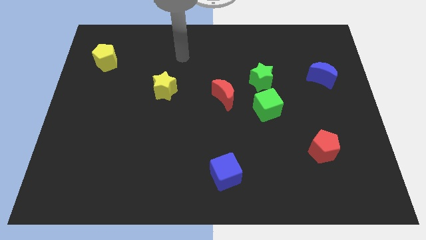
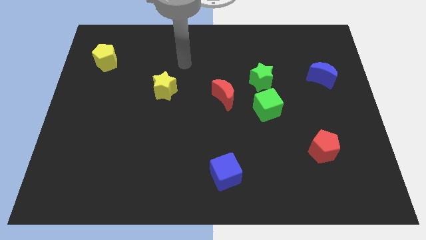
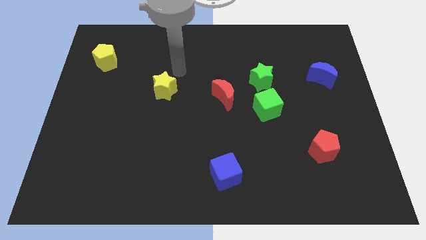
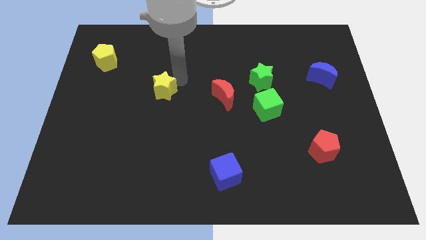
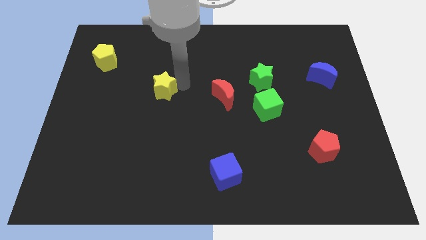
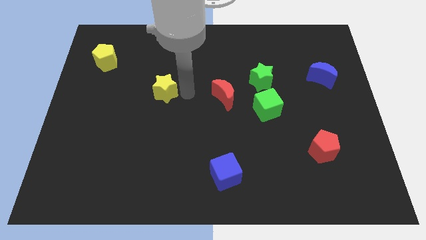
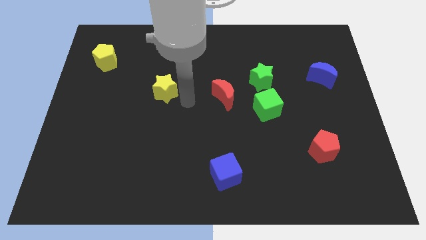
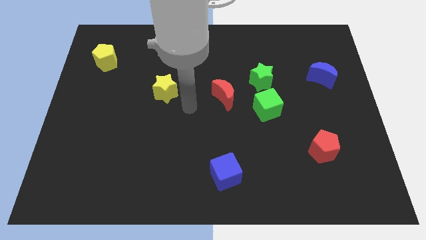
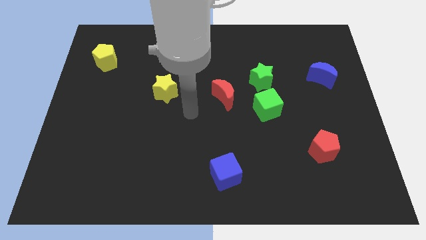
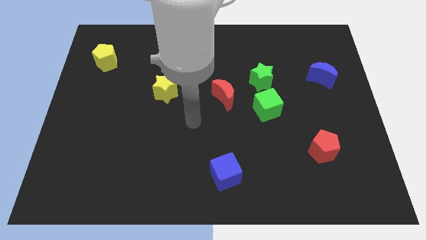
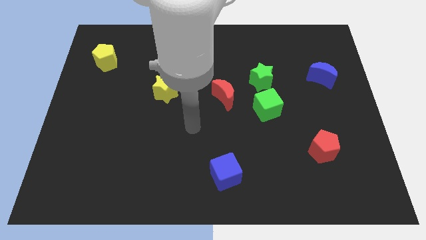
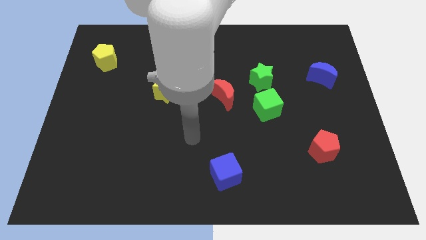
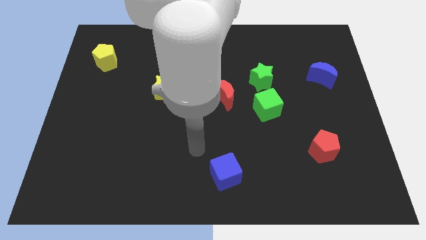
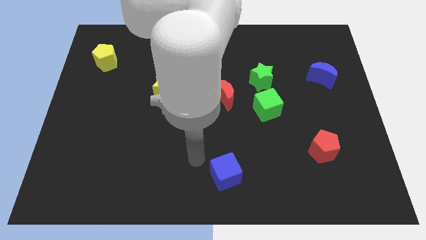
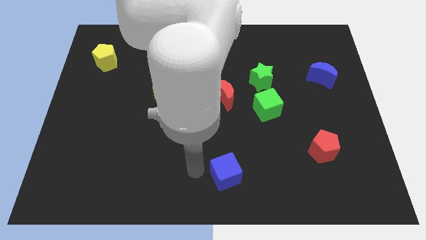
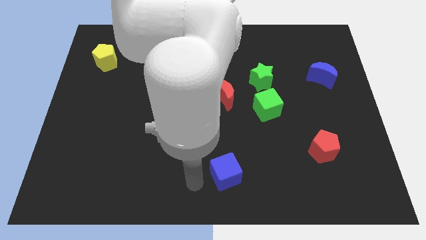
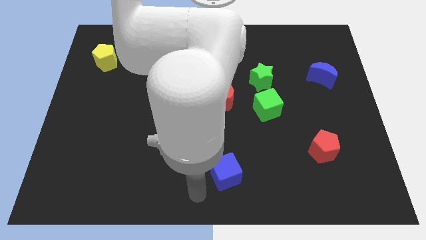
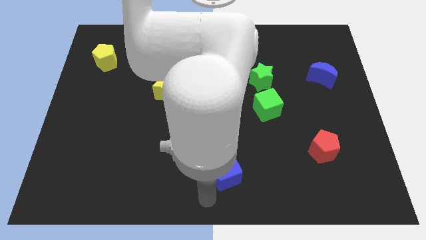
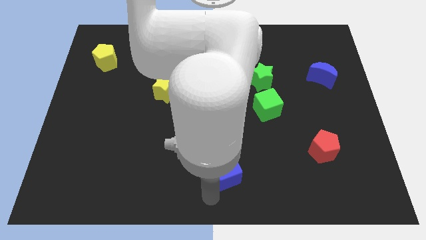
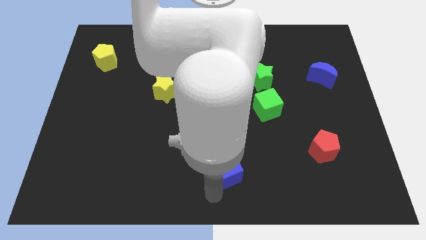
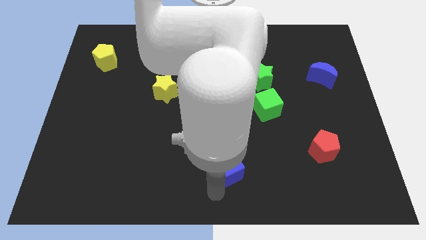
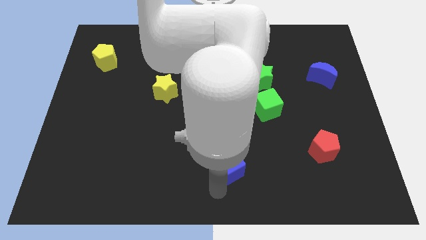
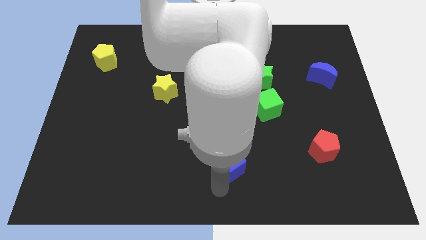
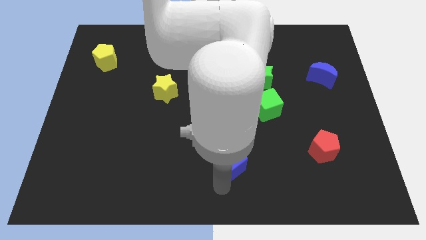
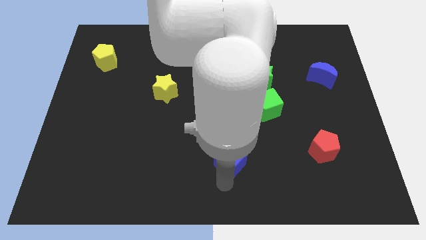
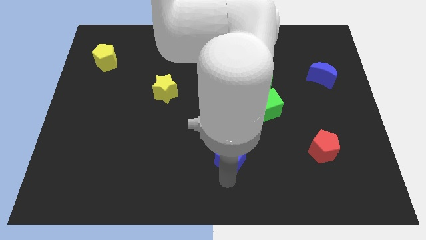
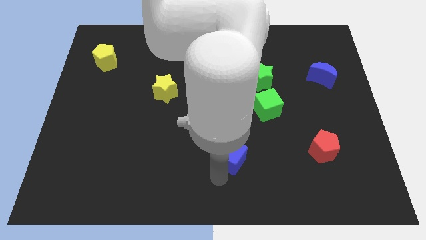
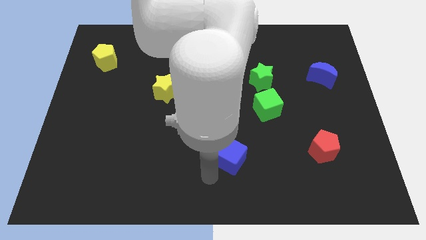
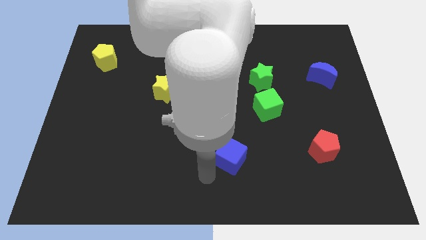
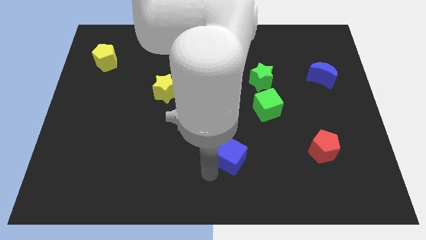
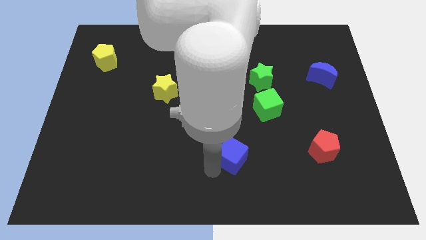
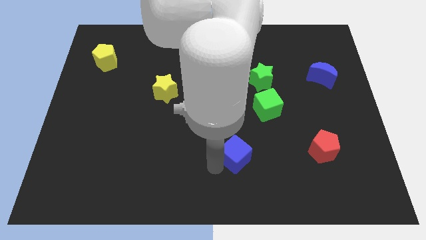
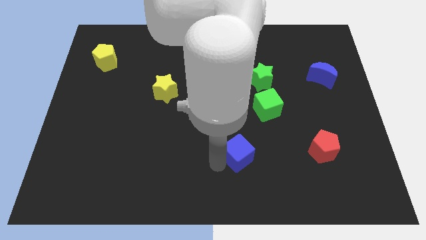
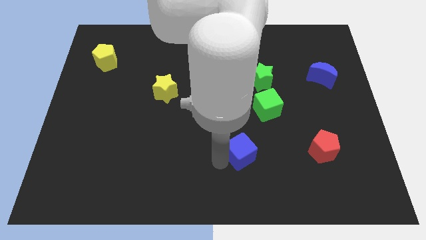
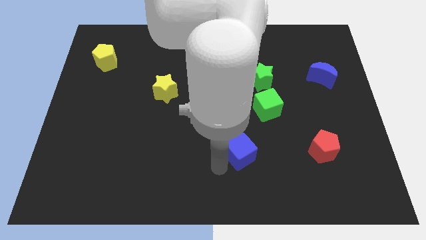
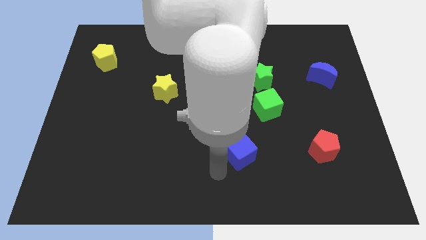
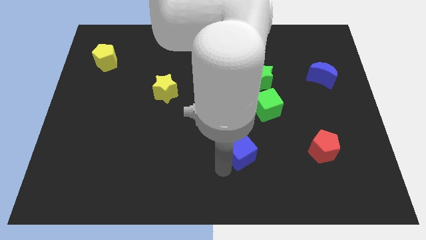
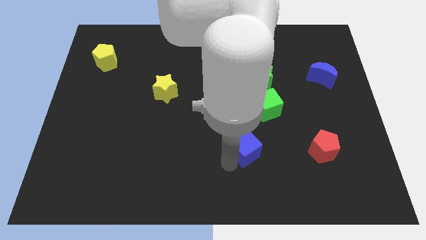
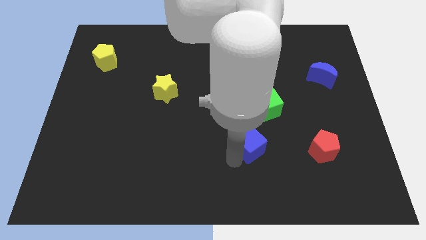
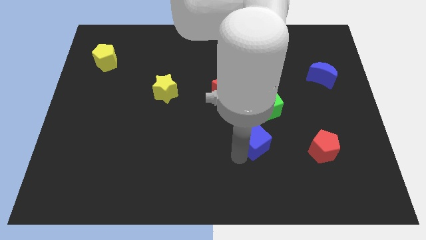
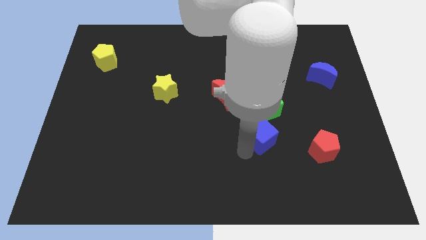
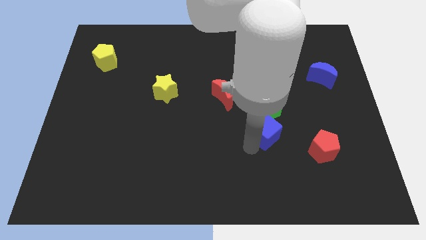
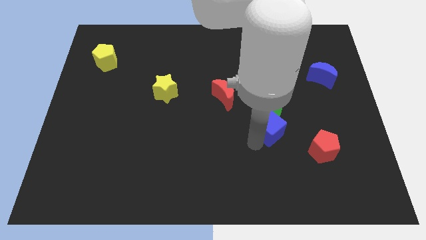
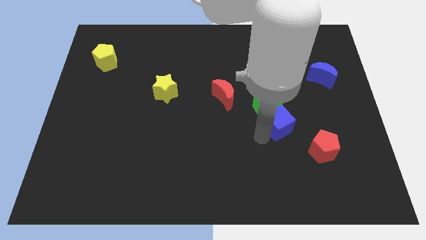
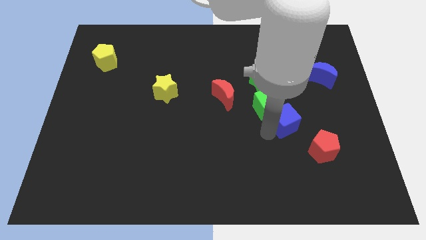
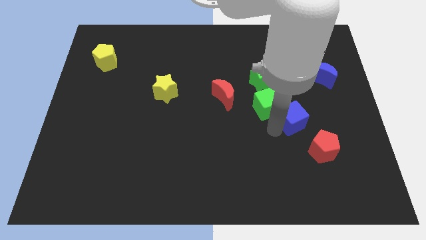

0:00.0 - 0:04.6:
push the blue cube up and then right

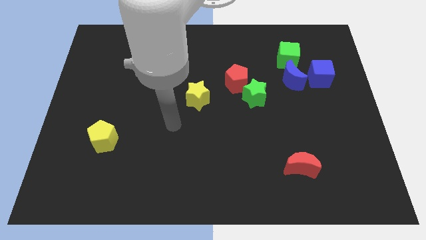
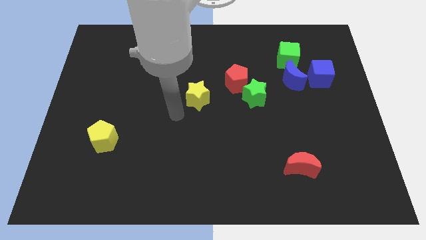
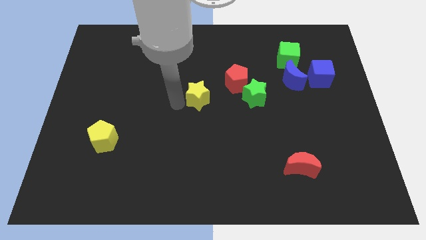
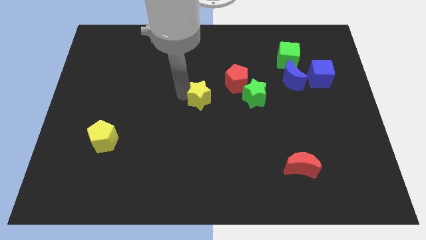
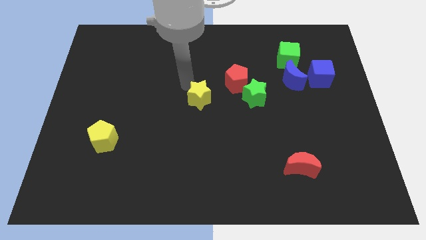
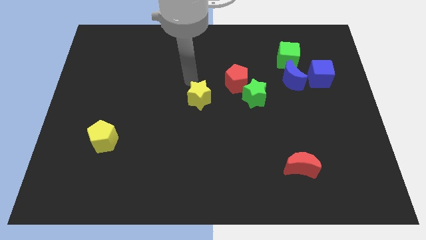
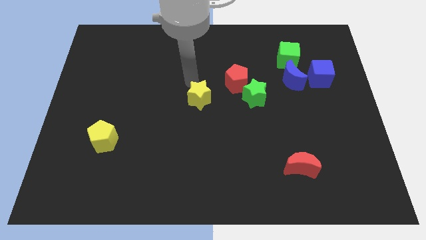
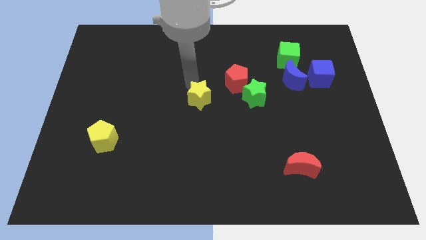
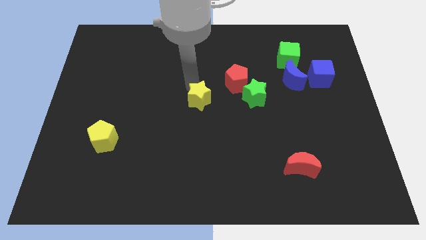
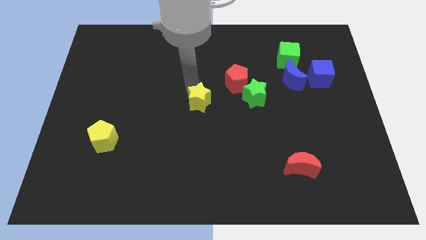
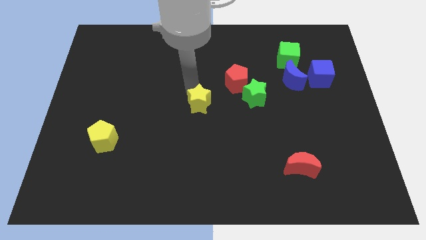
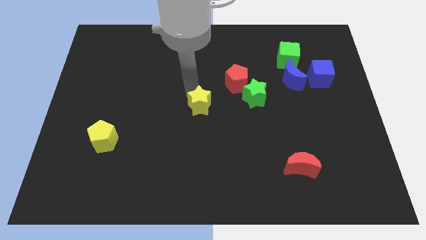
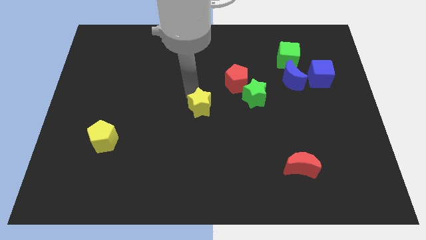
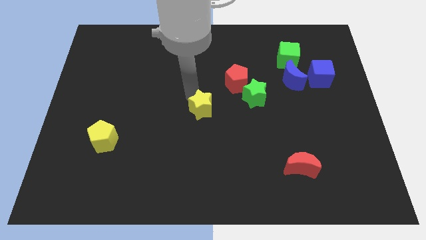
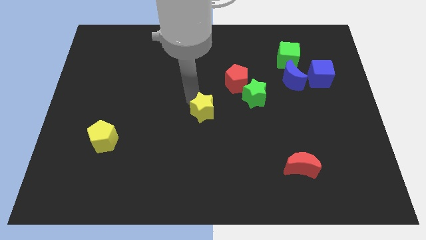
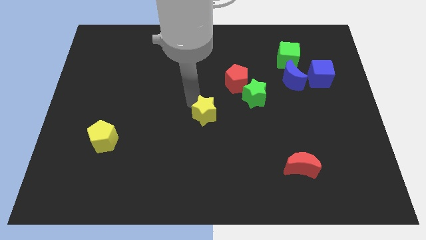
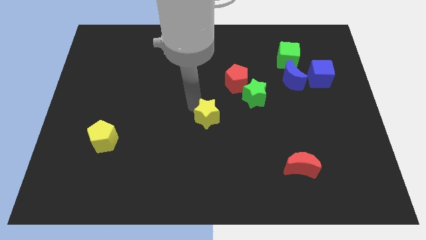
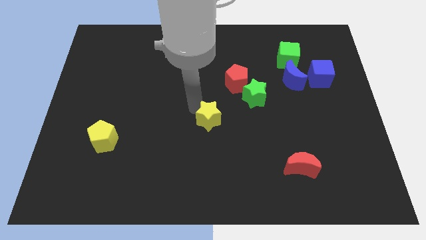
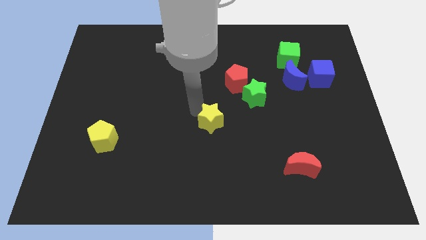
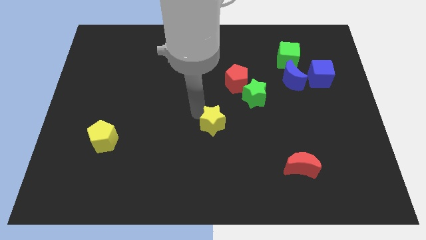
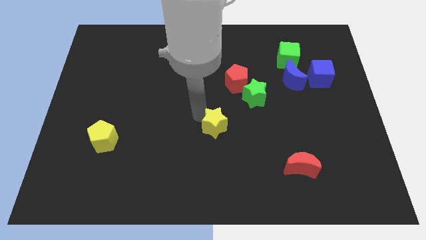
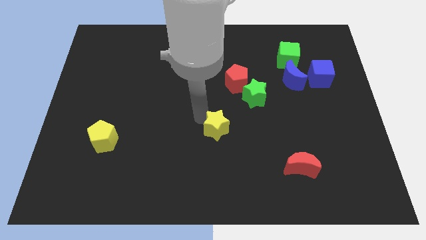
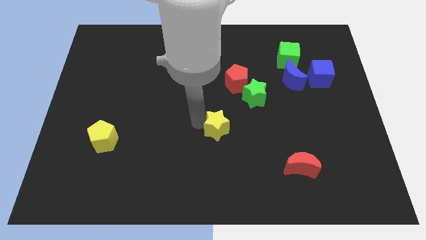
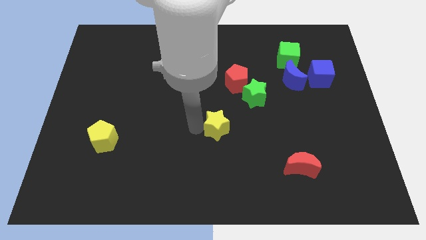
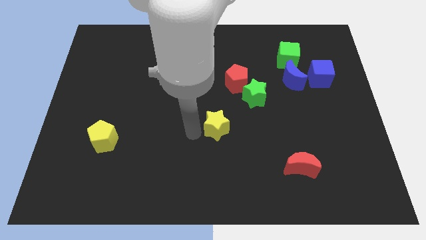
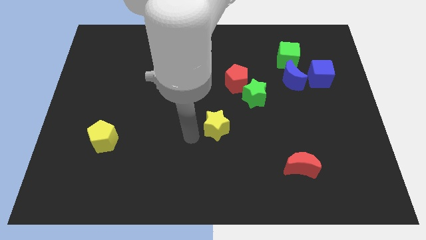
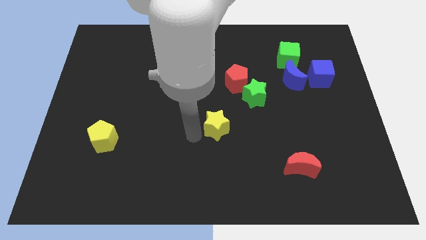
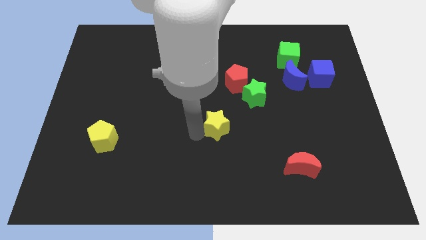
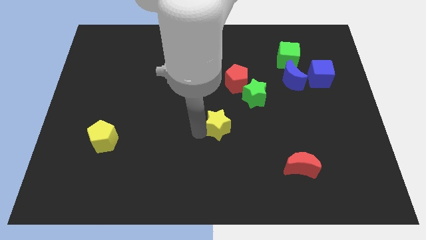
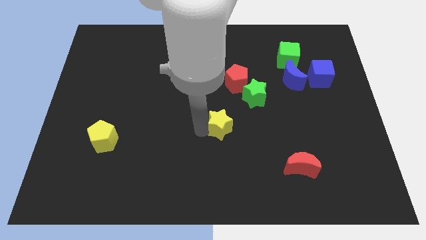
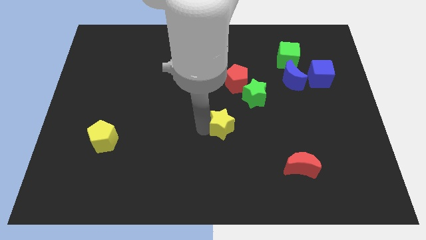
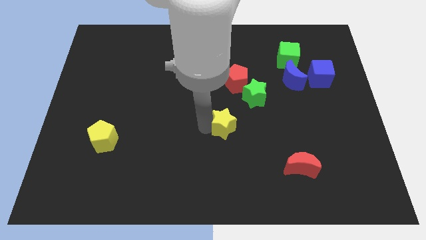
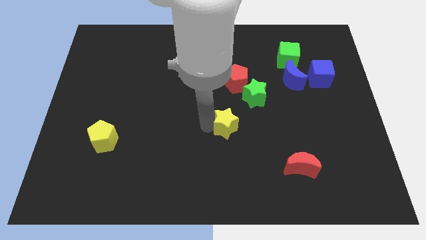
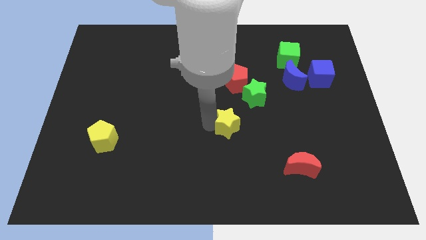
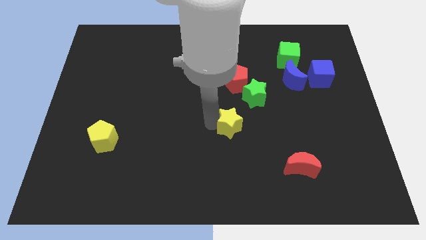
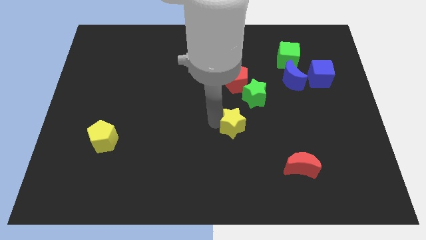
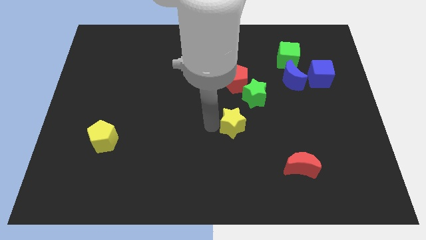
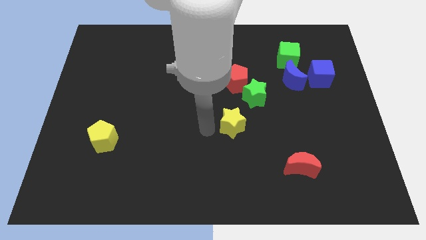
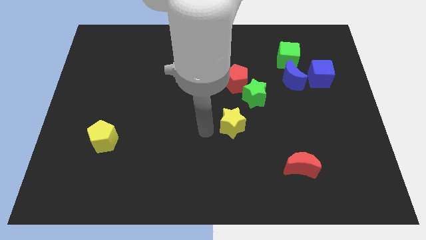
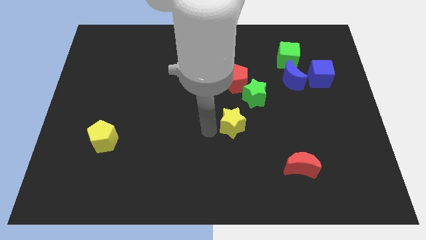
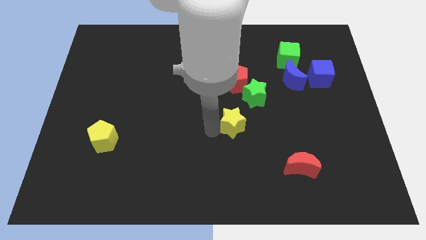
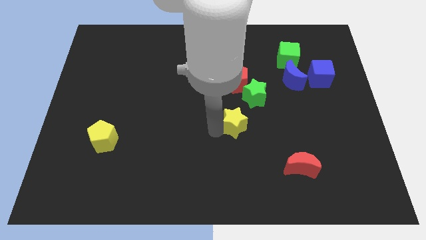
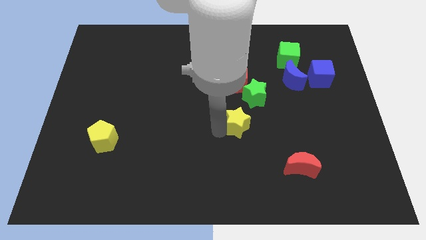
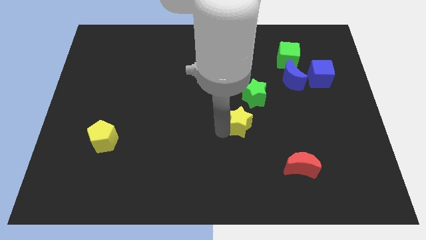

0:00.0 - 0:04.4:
move the yellow star a bit right
